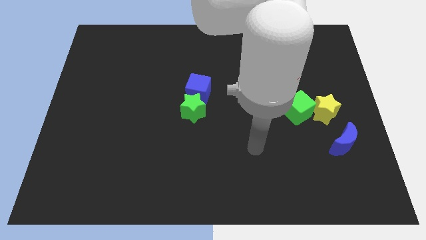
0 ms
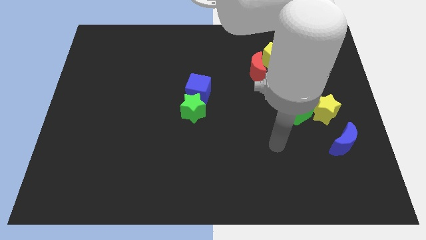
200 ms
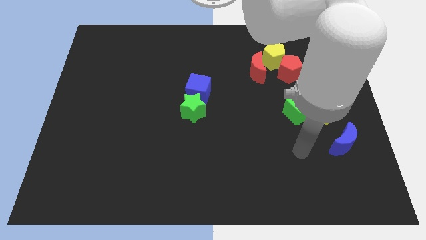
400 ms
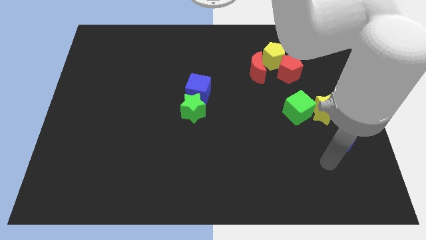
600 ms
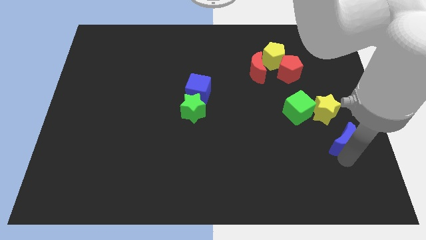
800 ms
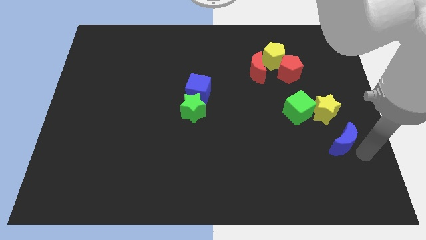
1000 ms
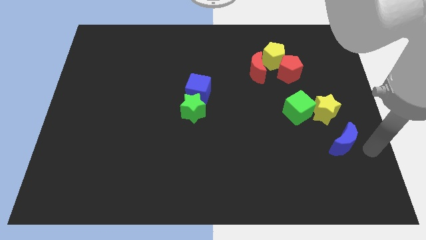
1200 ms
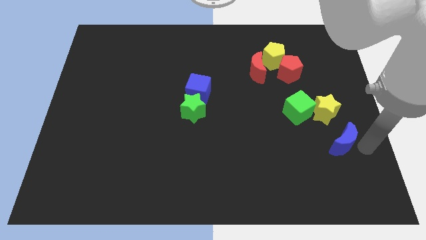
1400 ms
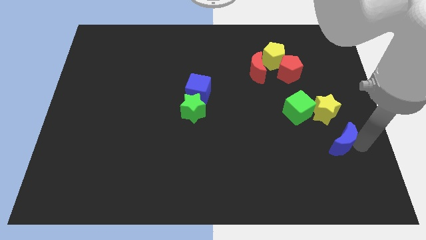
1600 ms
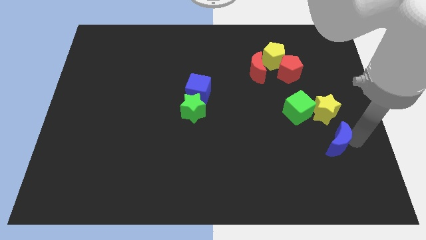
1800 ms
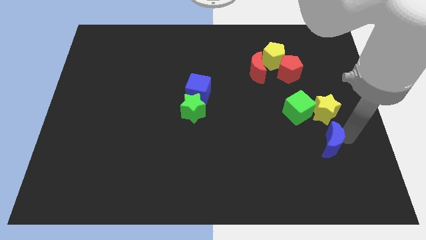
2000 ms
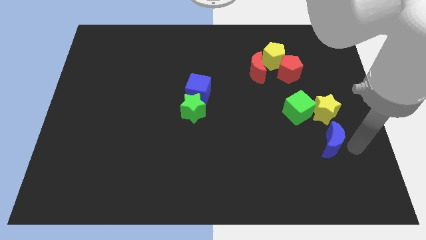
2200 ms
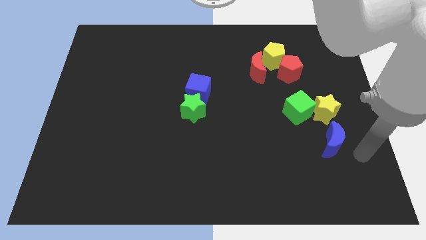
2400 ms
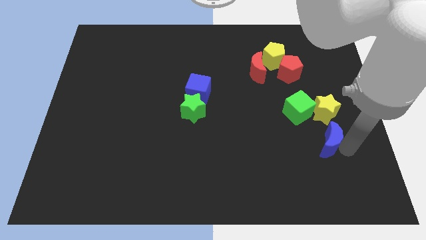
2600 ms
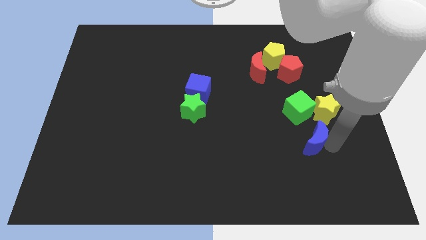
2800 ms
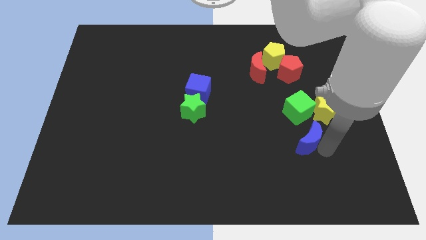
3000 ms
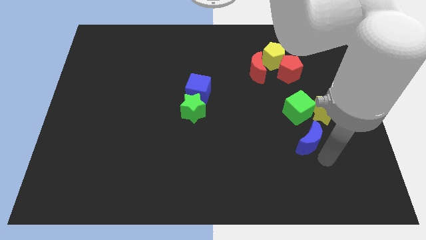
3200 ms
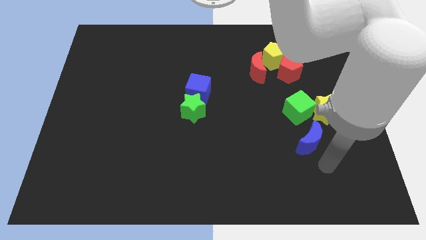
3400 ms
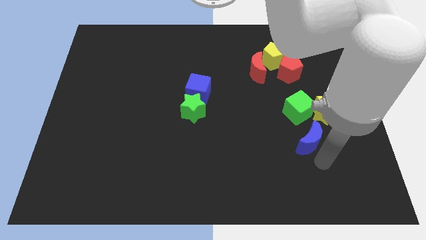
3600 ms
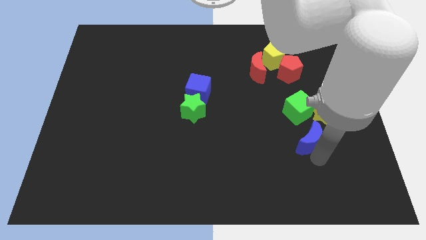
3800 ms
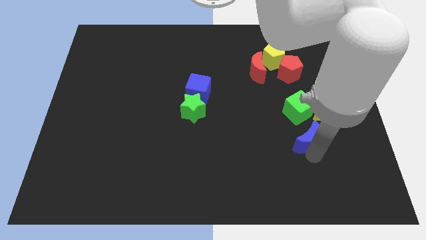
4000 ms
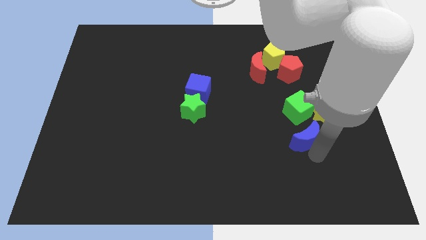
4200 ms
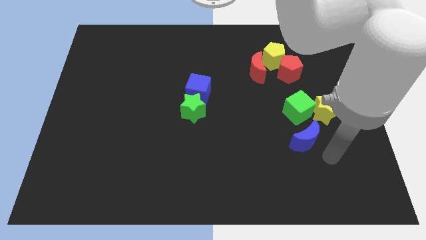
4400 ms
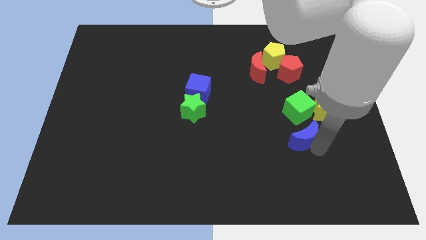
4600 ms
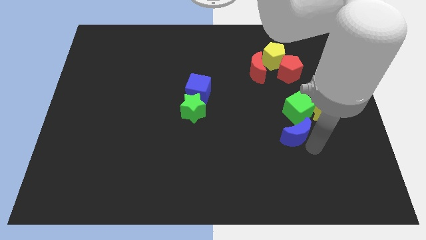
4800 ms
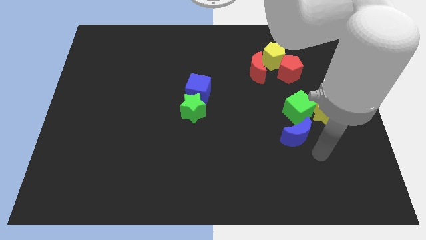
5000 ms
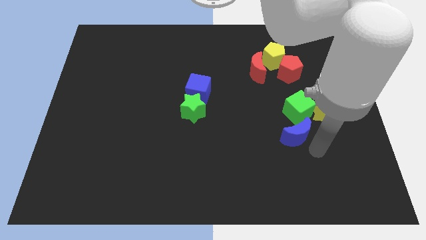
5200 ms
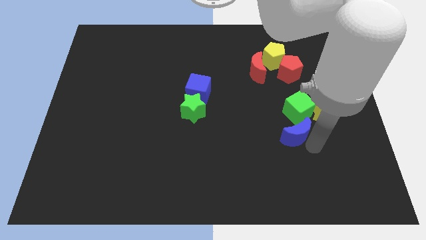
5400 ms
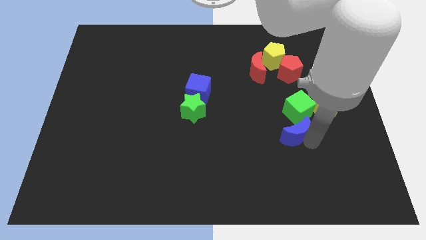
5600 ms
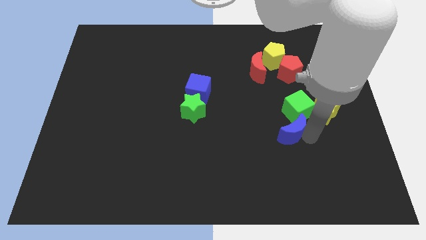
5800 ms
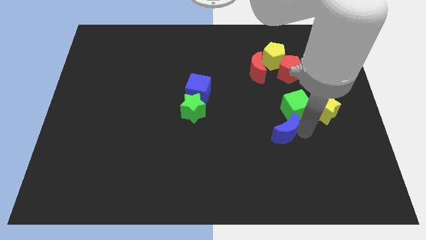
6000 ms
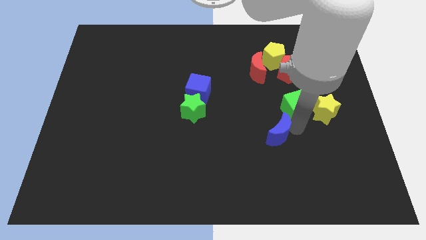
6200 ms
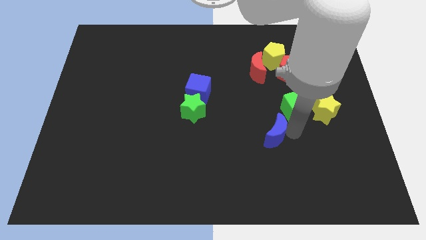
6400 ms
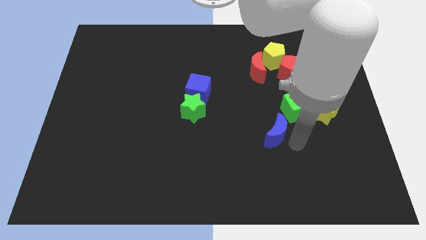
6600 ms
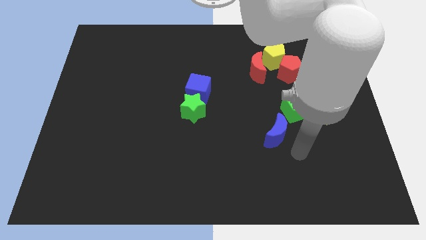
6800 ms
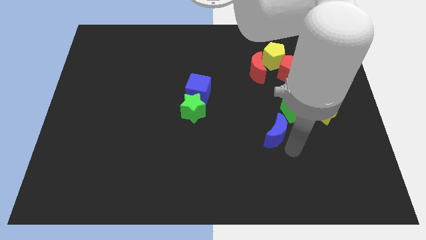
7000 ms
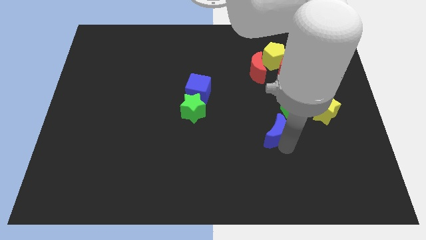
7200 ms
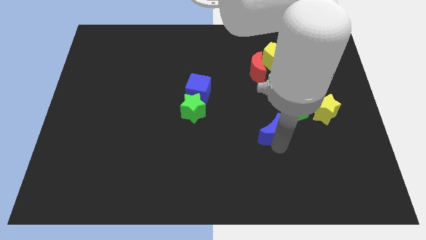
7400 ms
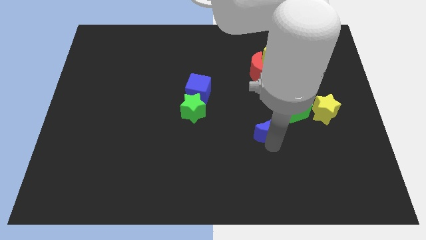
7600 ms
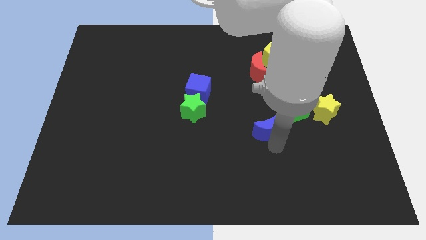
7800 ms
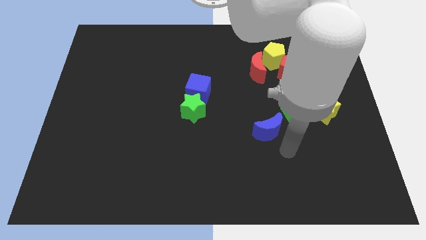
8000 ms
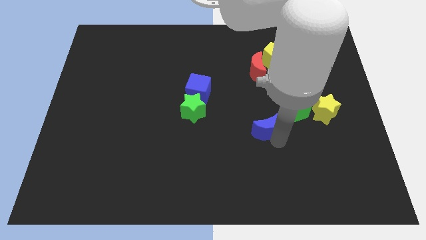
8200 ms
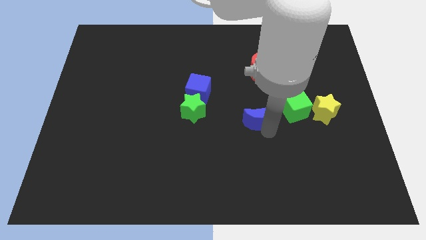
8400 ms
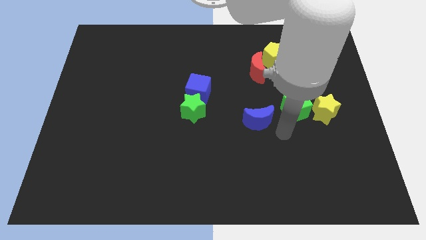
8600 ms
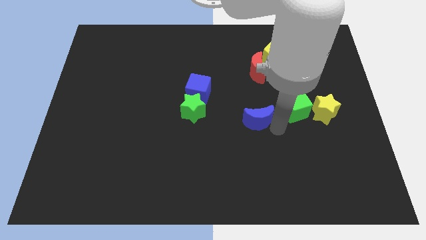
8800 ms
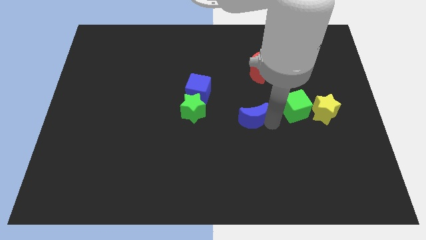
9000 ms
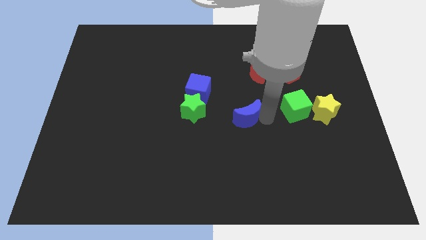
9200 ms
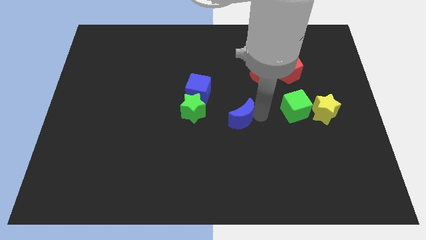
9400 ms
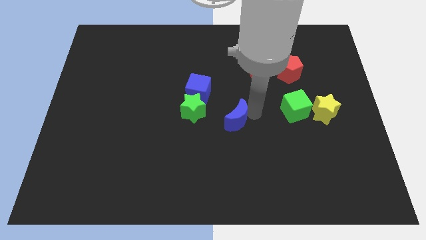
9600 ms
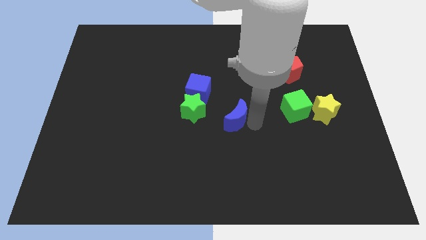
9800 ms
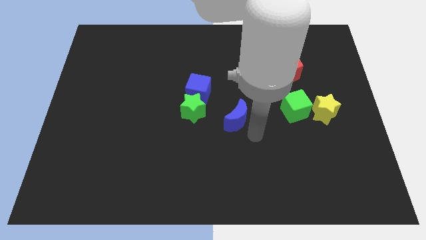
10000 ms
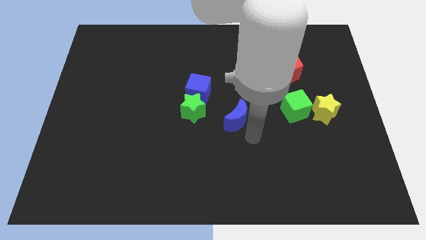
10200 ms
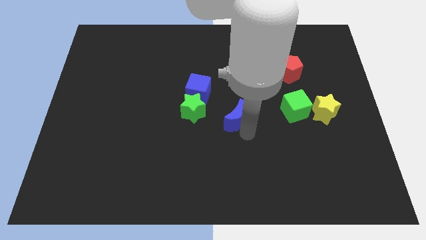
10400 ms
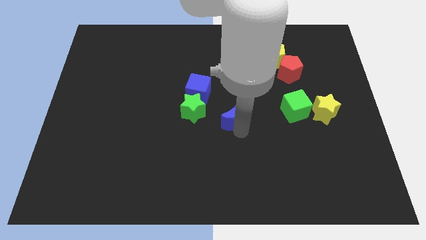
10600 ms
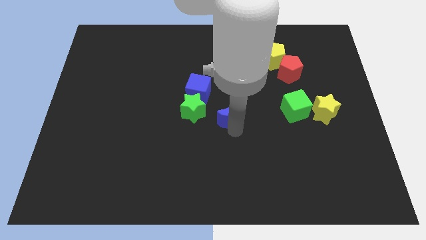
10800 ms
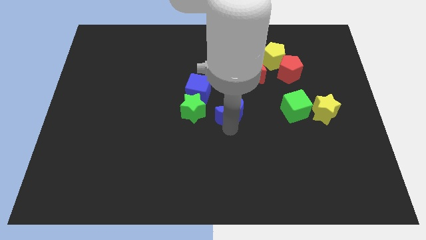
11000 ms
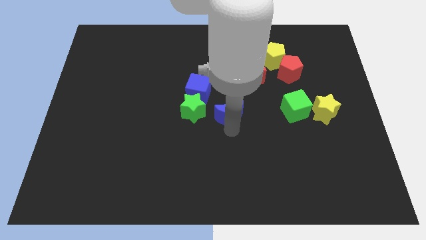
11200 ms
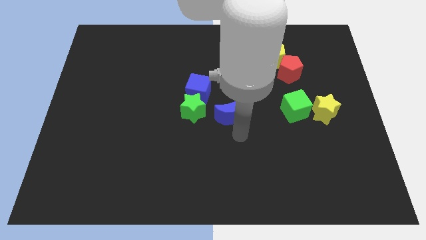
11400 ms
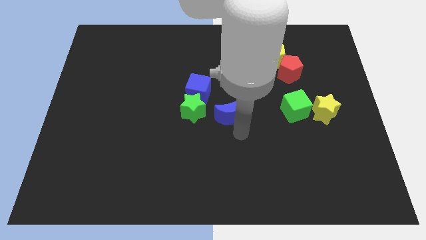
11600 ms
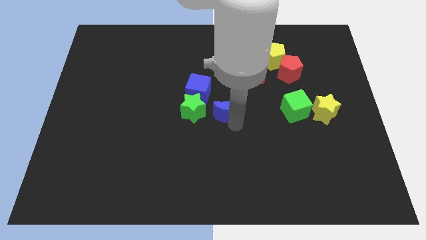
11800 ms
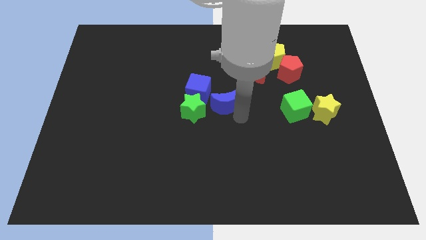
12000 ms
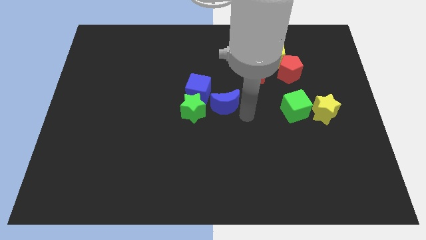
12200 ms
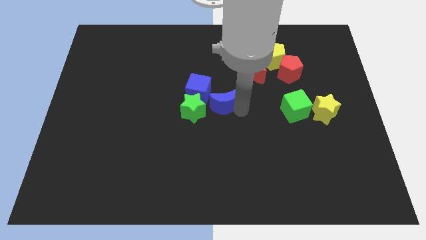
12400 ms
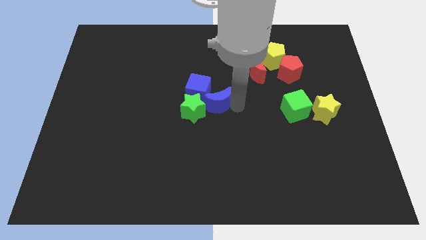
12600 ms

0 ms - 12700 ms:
slide the blue moon next to the blue cube
